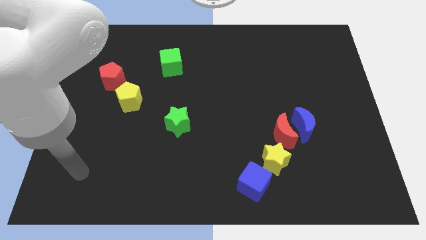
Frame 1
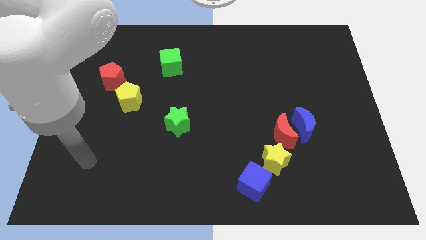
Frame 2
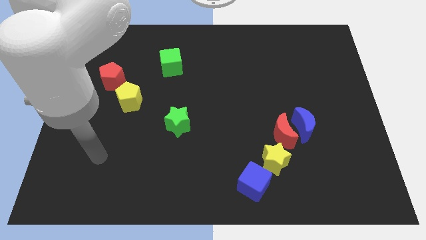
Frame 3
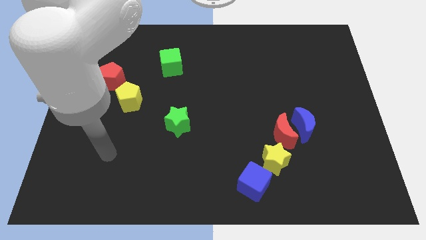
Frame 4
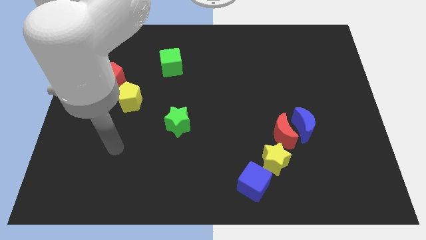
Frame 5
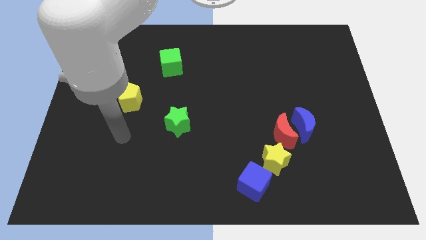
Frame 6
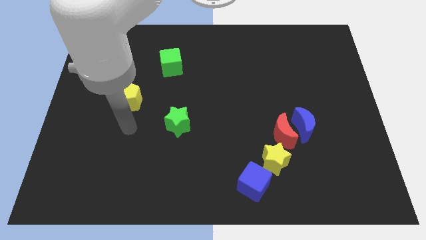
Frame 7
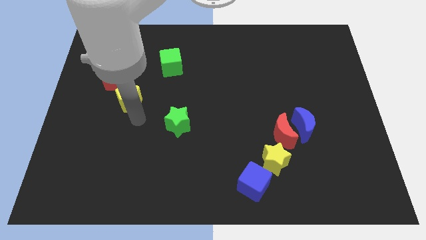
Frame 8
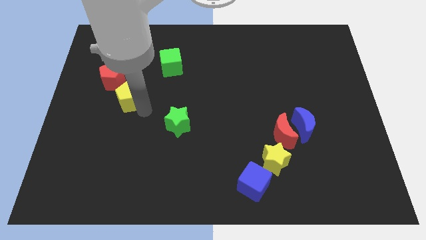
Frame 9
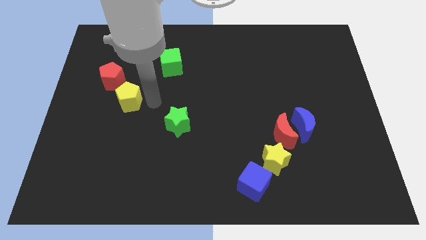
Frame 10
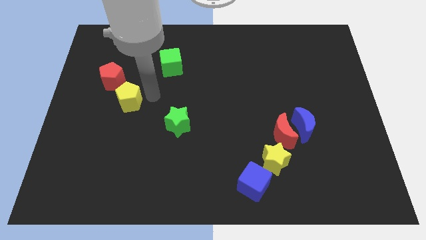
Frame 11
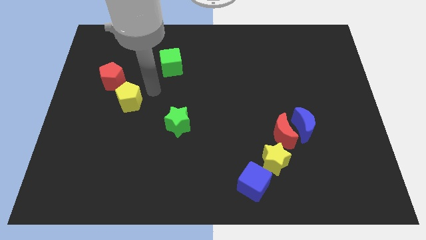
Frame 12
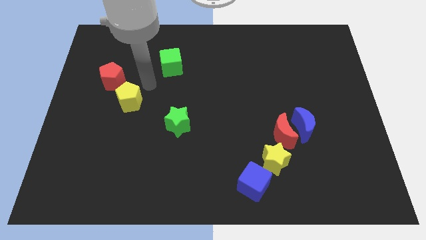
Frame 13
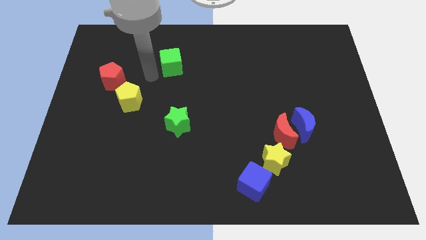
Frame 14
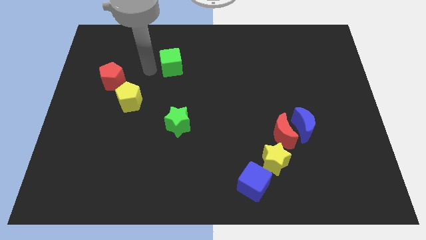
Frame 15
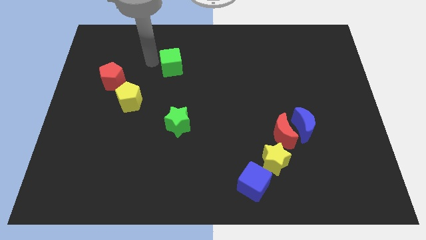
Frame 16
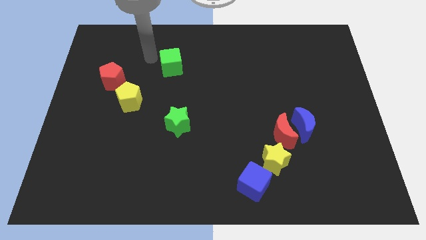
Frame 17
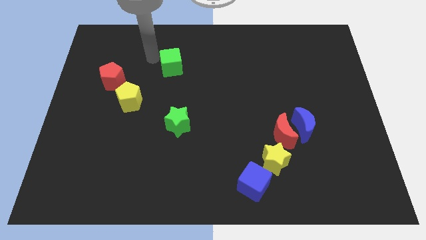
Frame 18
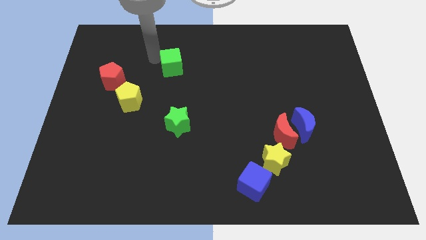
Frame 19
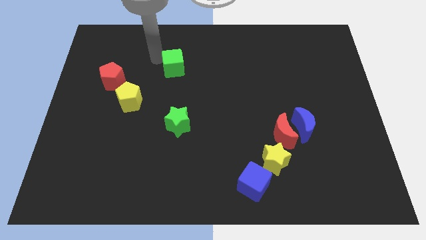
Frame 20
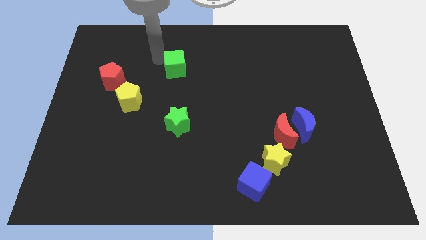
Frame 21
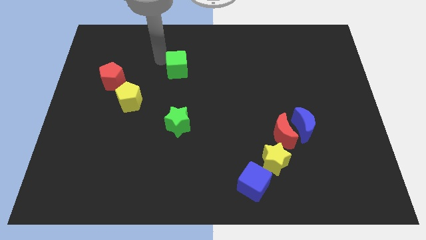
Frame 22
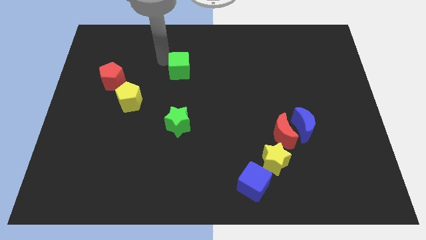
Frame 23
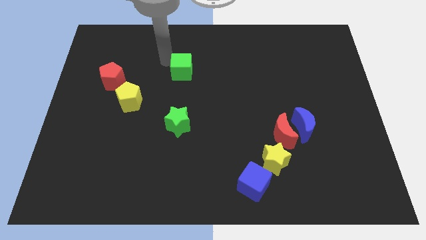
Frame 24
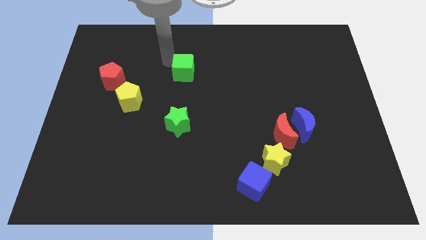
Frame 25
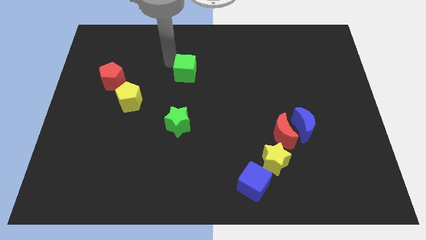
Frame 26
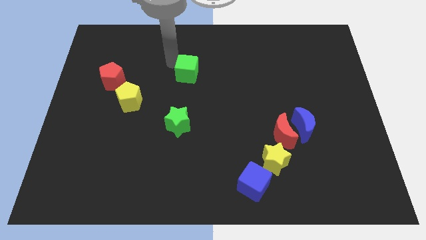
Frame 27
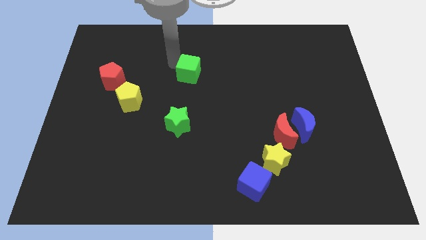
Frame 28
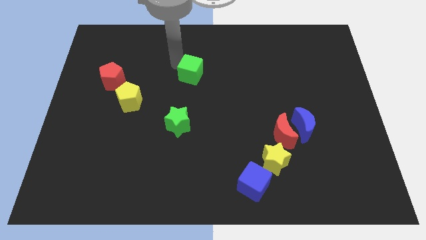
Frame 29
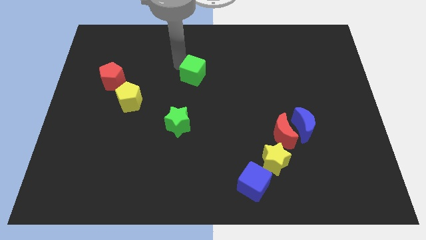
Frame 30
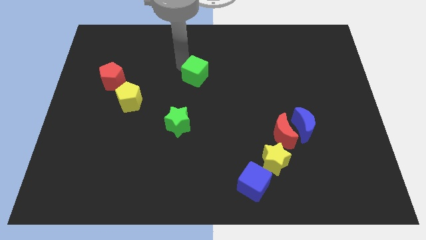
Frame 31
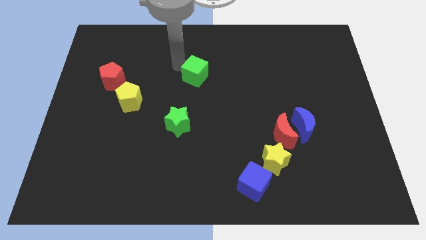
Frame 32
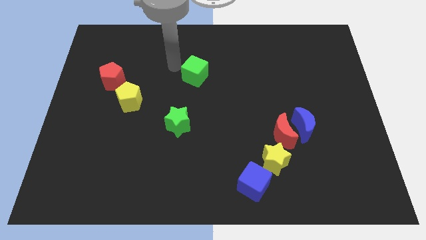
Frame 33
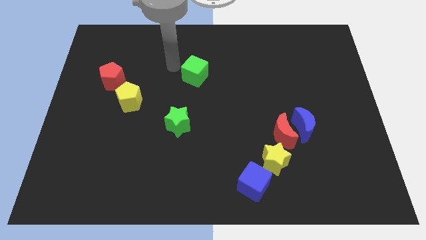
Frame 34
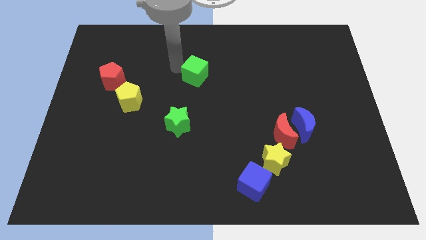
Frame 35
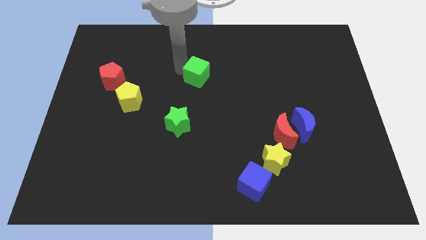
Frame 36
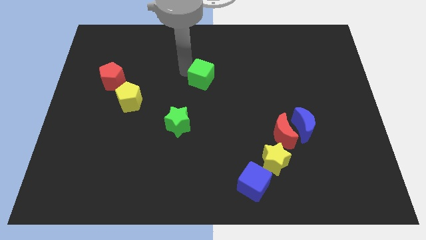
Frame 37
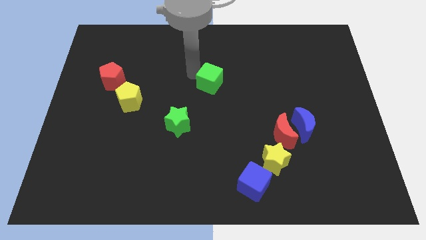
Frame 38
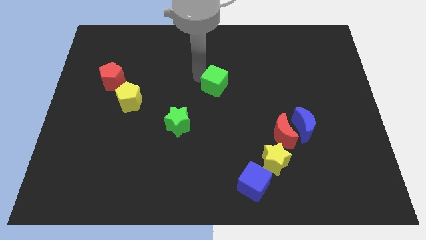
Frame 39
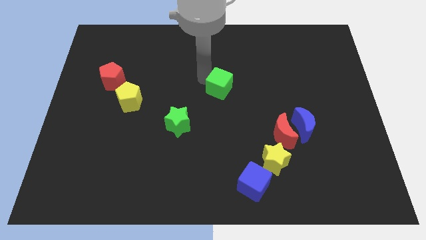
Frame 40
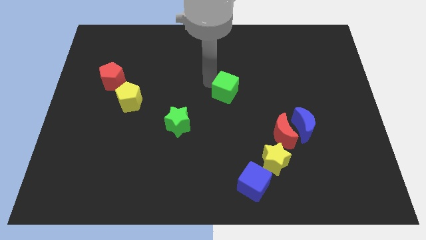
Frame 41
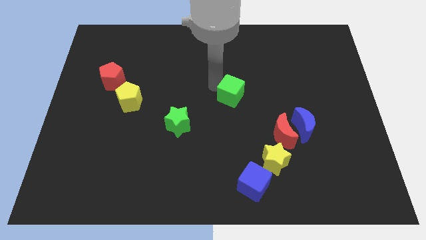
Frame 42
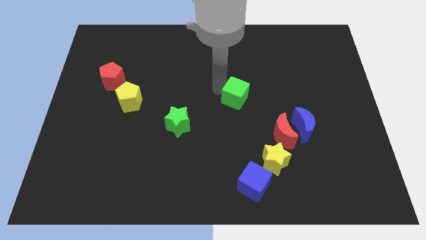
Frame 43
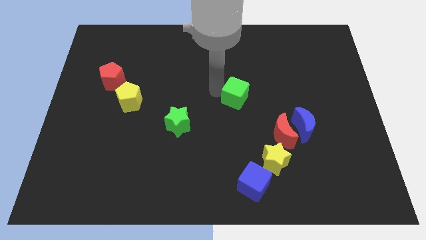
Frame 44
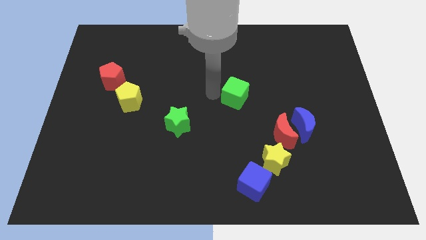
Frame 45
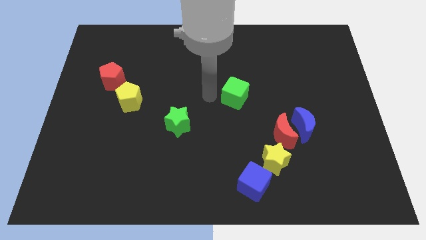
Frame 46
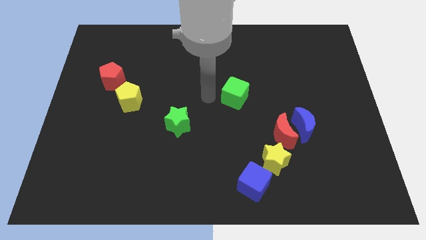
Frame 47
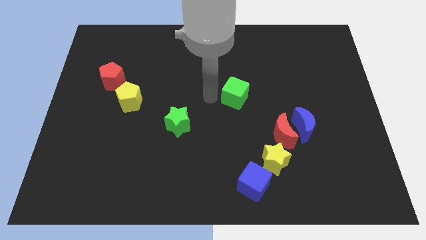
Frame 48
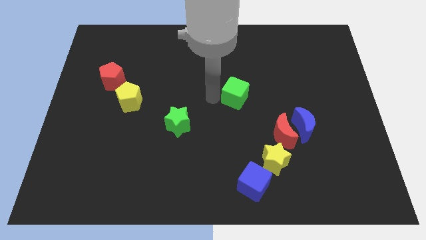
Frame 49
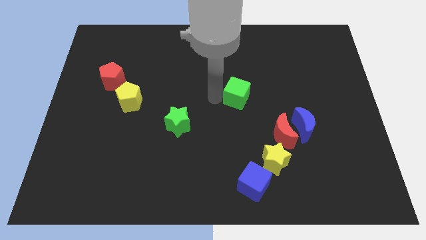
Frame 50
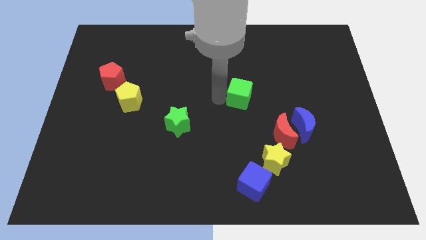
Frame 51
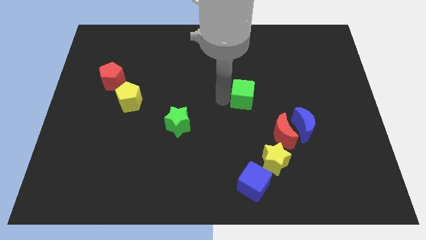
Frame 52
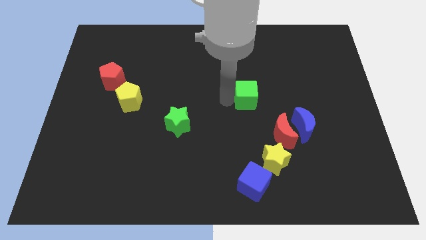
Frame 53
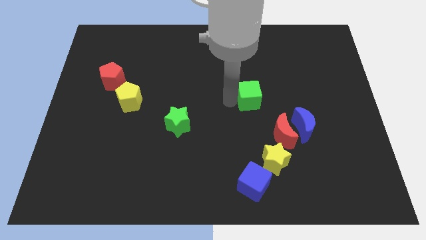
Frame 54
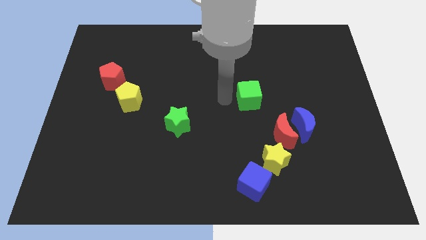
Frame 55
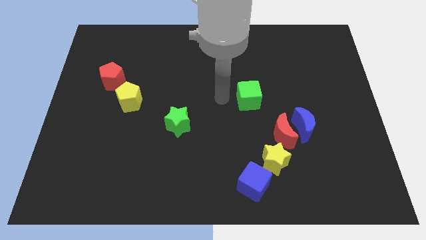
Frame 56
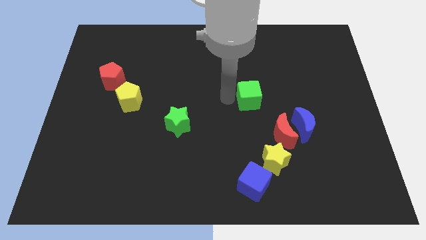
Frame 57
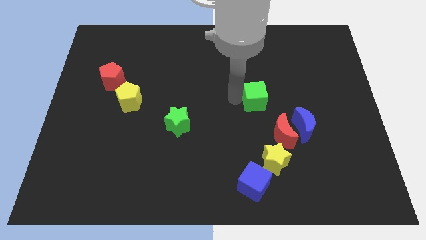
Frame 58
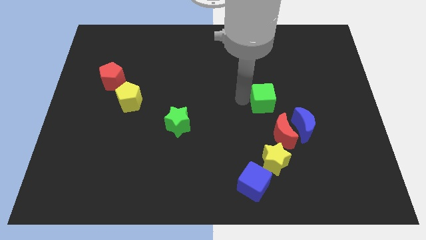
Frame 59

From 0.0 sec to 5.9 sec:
put the green cube above the red moon

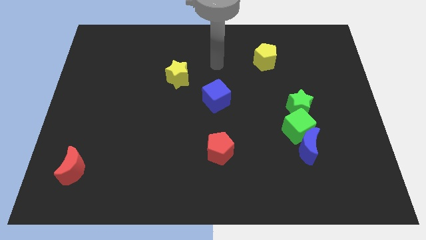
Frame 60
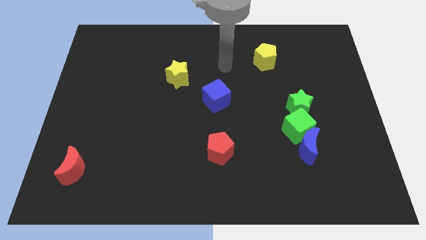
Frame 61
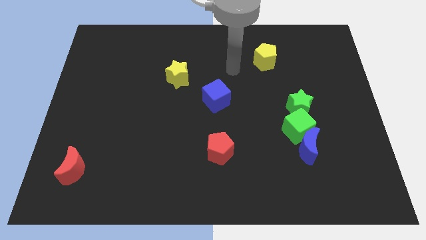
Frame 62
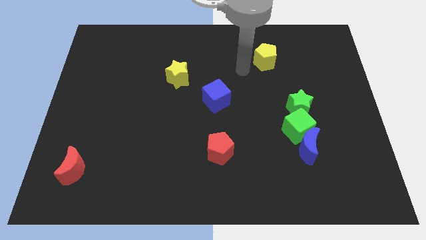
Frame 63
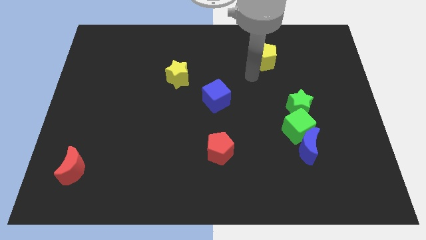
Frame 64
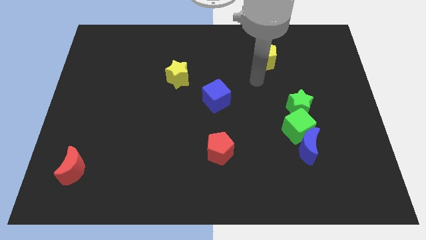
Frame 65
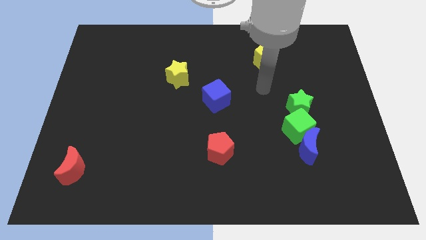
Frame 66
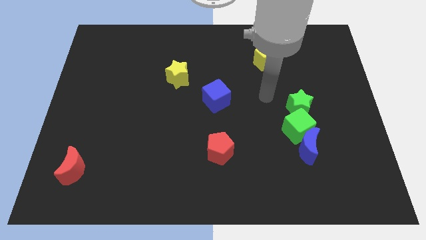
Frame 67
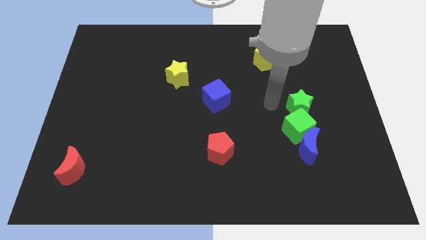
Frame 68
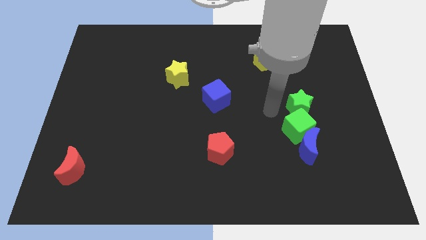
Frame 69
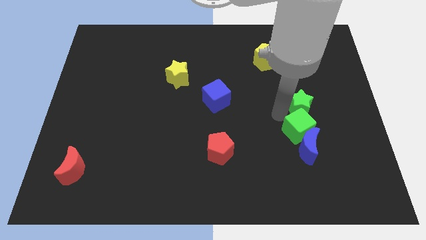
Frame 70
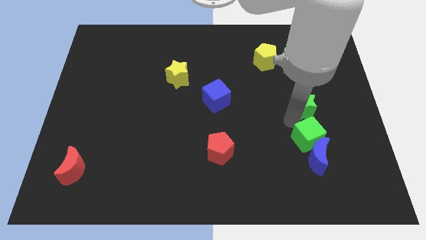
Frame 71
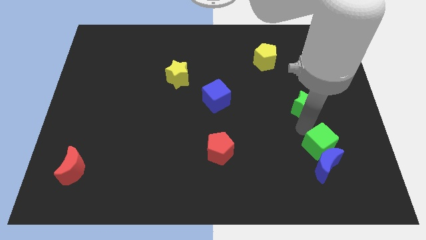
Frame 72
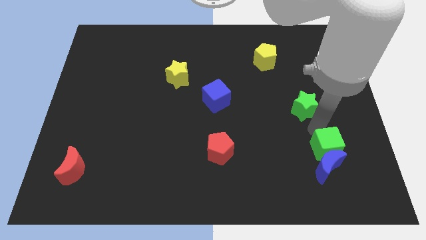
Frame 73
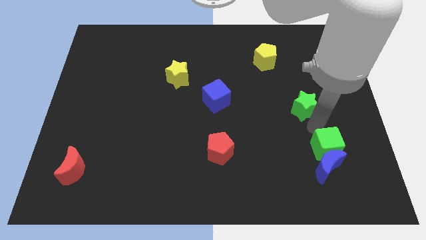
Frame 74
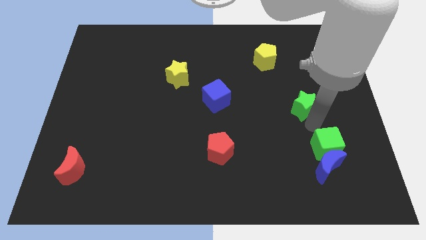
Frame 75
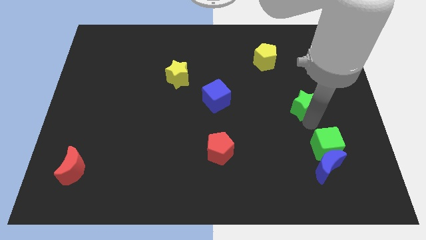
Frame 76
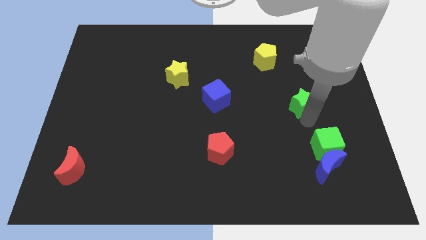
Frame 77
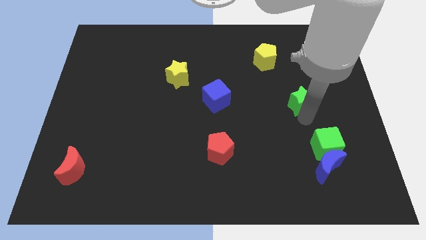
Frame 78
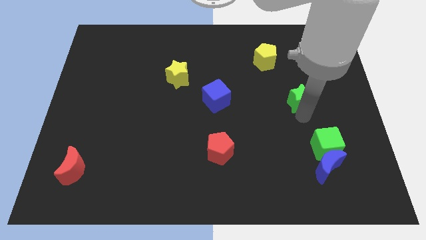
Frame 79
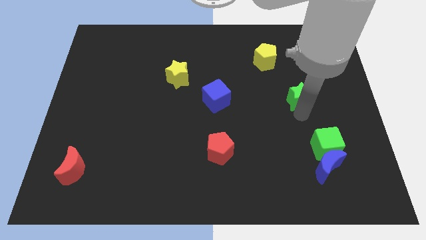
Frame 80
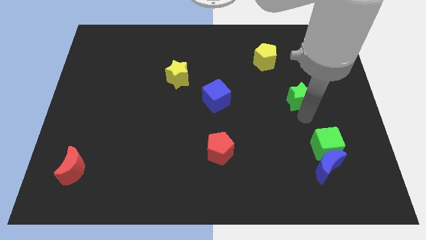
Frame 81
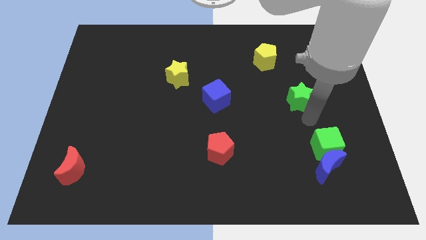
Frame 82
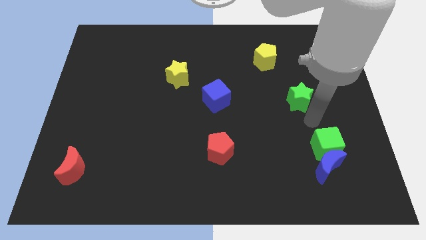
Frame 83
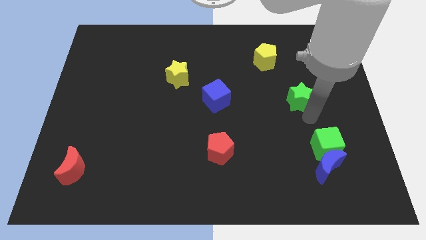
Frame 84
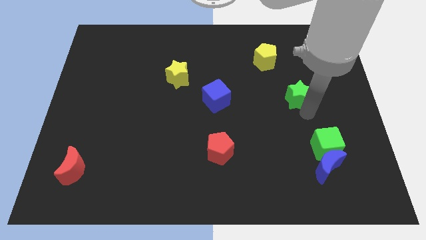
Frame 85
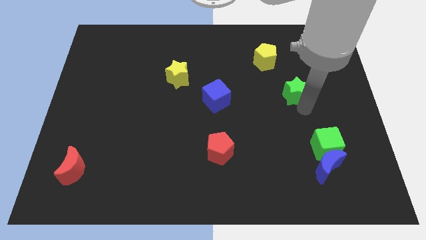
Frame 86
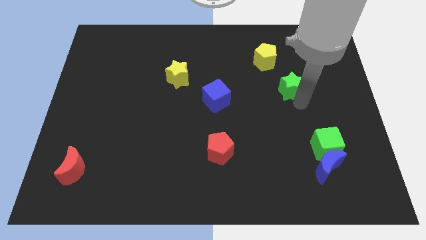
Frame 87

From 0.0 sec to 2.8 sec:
move the green star diagonally down and to the right of the yellow pentagon
